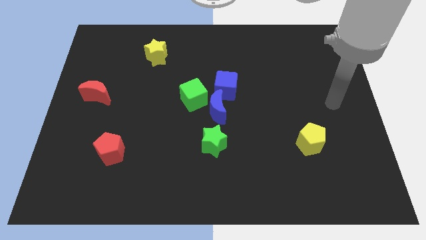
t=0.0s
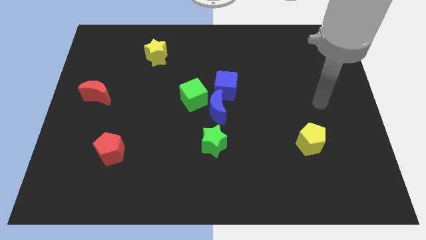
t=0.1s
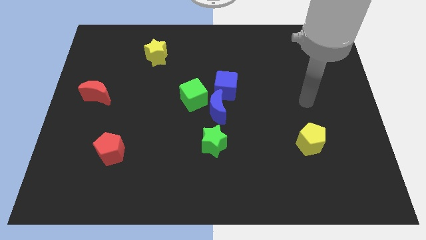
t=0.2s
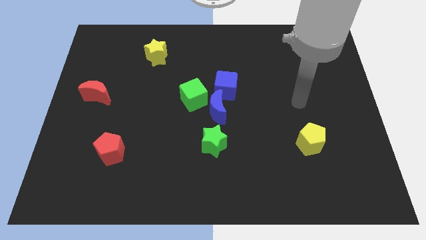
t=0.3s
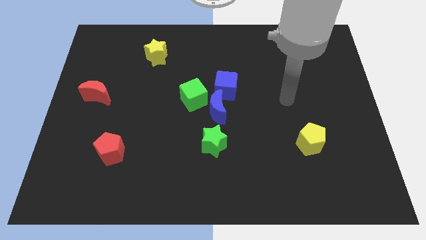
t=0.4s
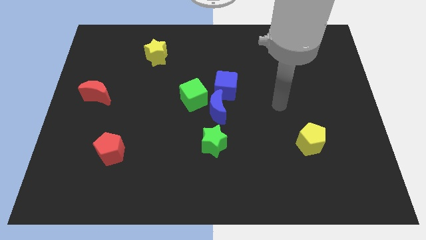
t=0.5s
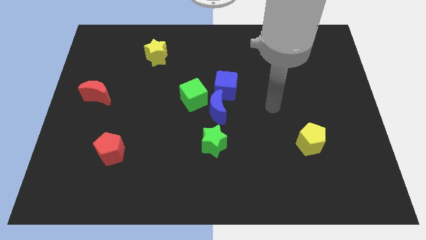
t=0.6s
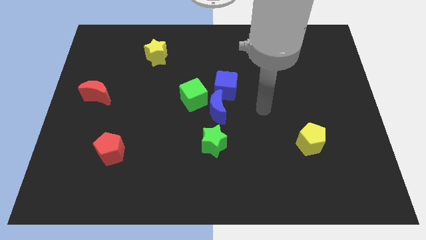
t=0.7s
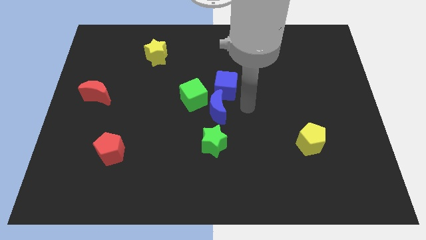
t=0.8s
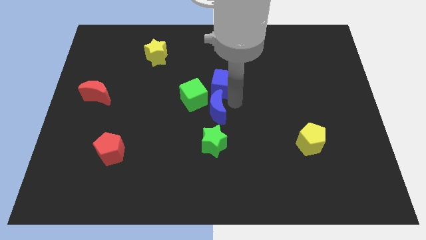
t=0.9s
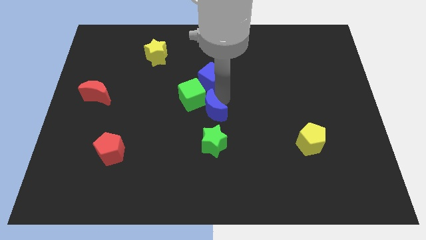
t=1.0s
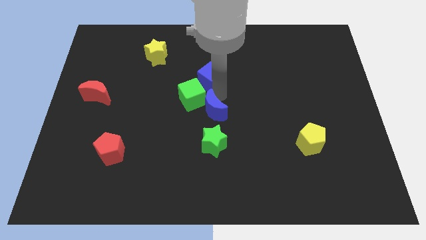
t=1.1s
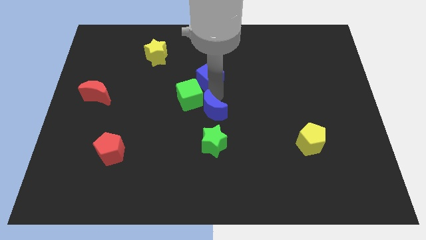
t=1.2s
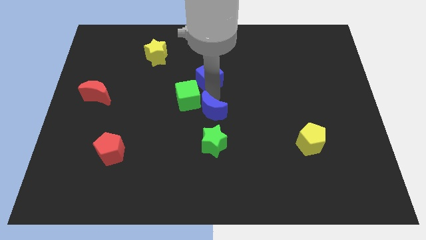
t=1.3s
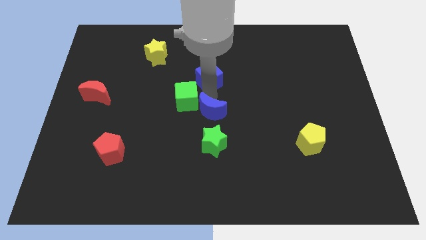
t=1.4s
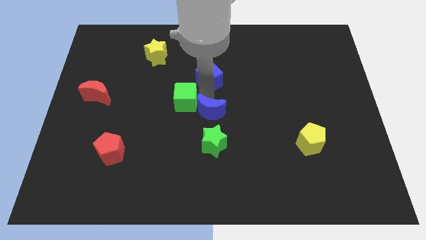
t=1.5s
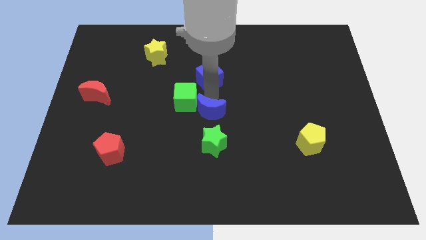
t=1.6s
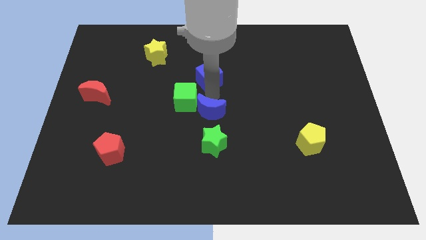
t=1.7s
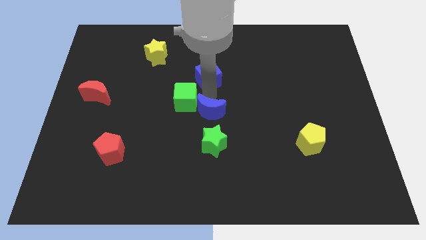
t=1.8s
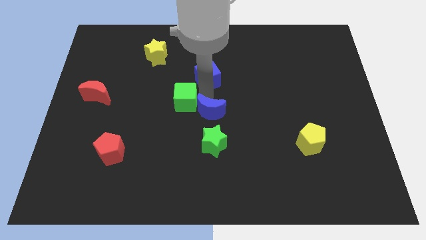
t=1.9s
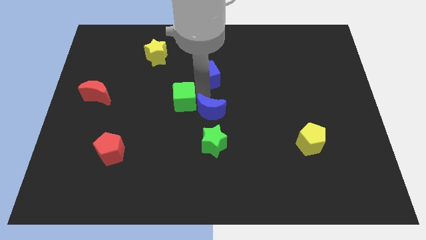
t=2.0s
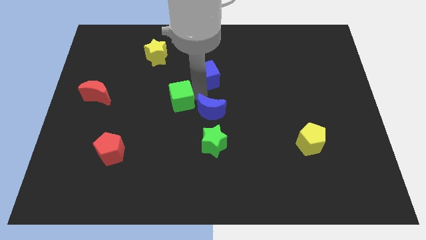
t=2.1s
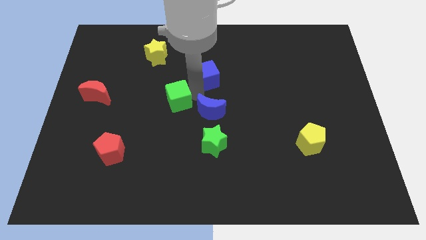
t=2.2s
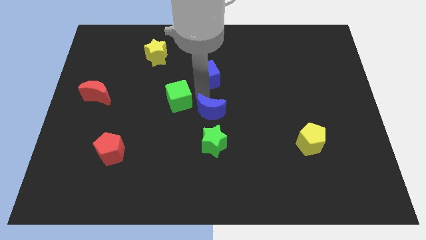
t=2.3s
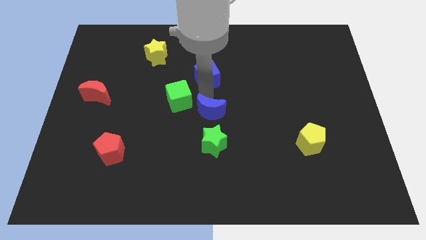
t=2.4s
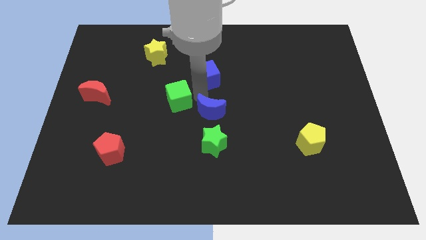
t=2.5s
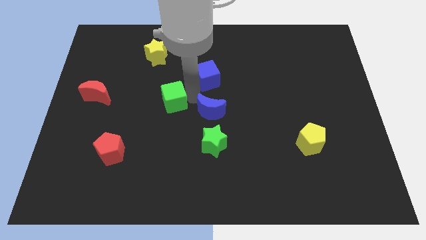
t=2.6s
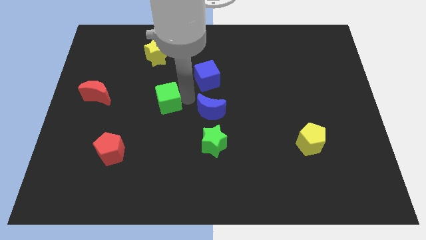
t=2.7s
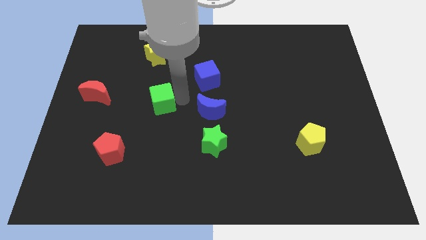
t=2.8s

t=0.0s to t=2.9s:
move the green cube away from the blue moon and blue cube

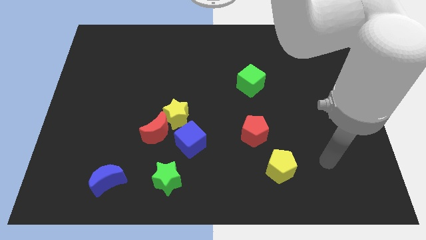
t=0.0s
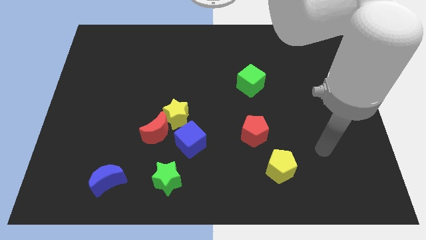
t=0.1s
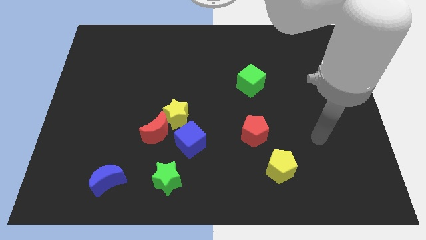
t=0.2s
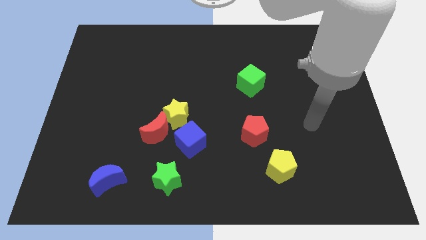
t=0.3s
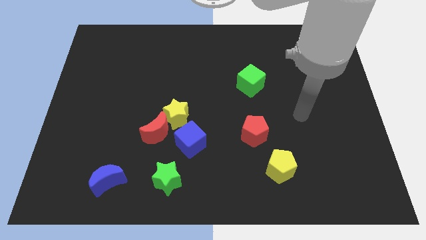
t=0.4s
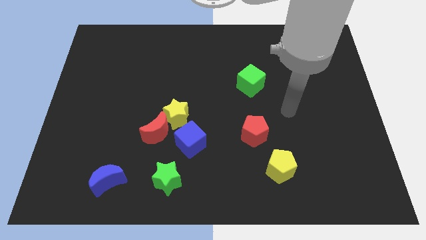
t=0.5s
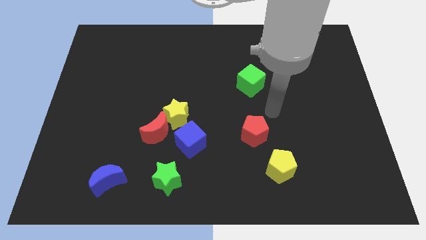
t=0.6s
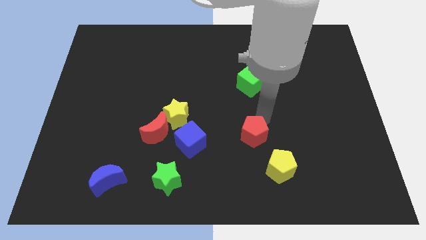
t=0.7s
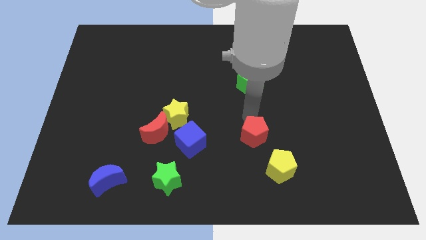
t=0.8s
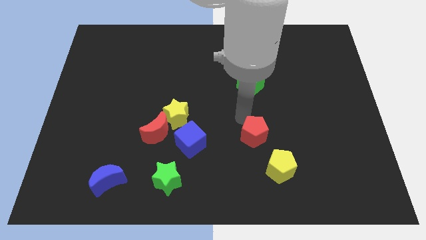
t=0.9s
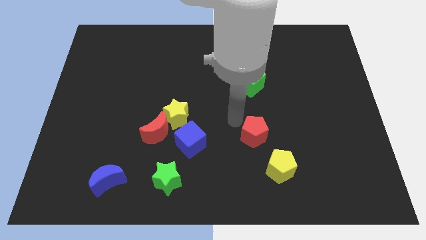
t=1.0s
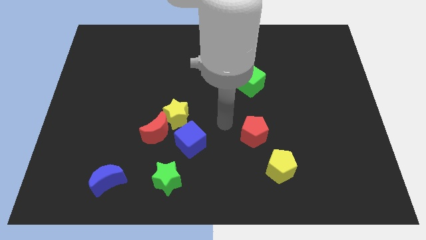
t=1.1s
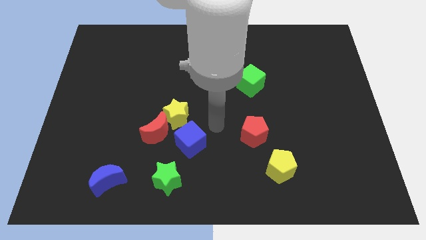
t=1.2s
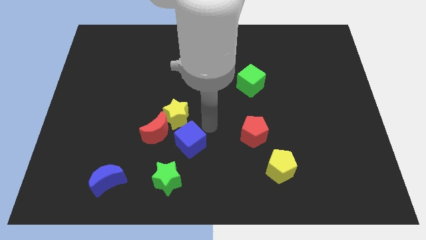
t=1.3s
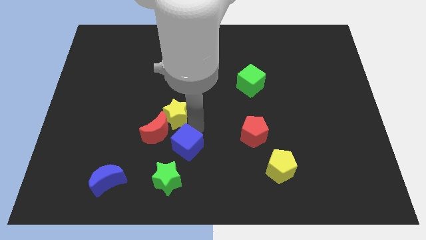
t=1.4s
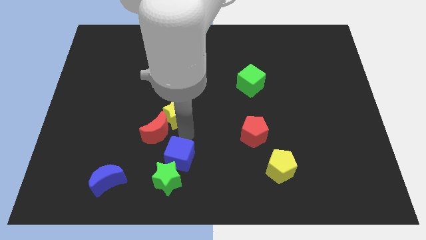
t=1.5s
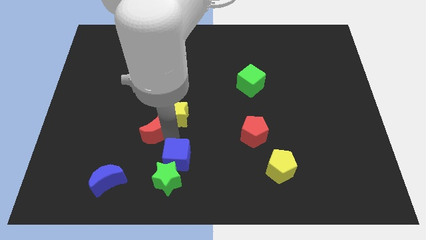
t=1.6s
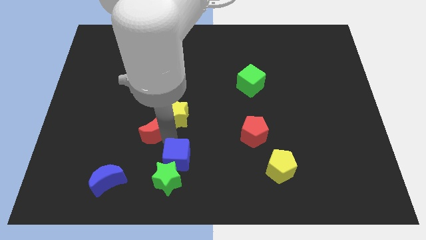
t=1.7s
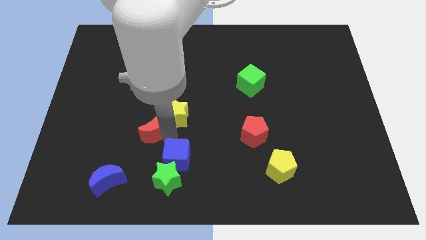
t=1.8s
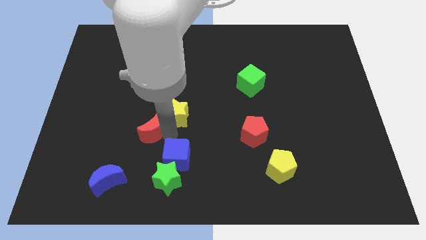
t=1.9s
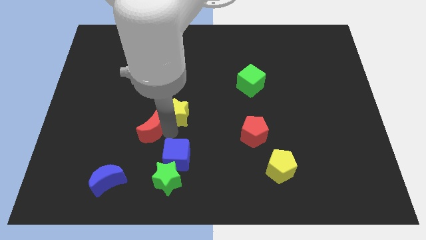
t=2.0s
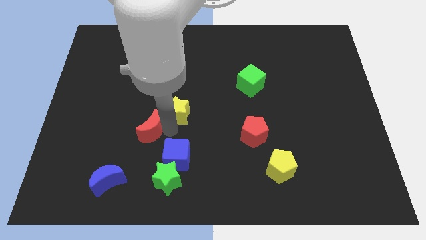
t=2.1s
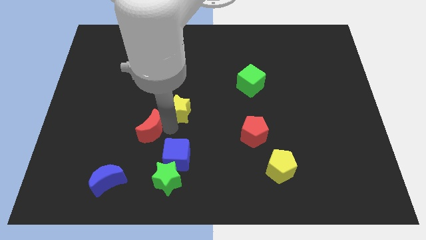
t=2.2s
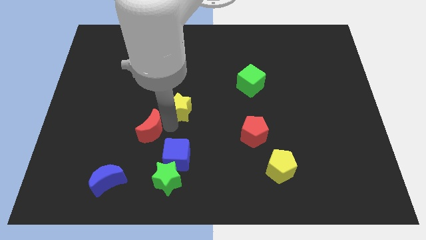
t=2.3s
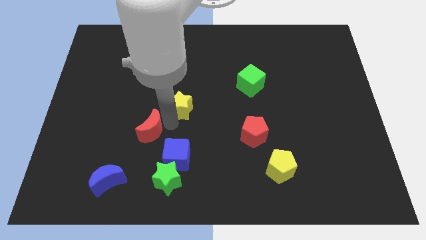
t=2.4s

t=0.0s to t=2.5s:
move the yellow star away from the red moon and blue cube

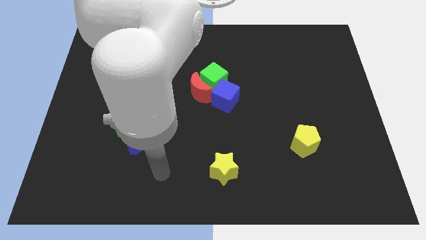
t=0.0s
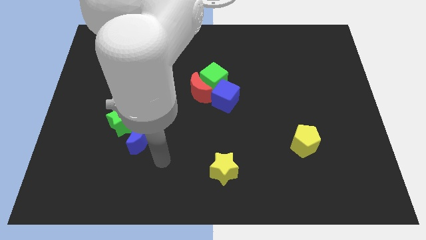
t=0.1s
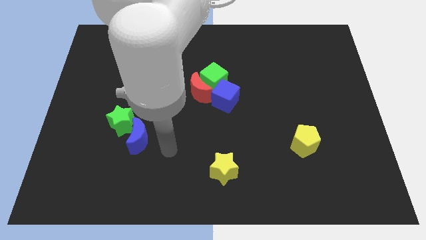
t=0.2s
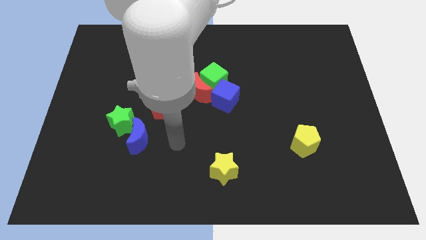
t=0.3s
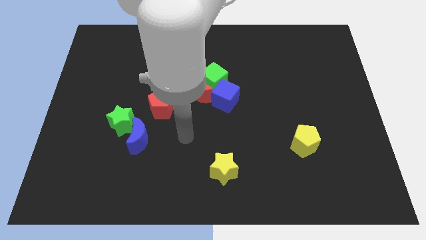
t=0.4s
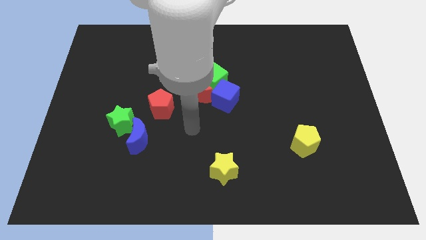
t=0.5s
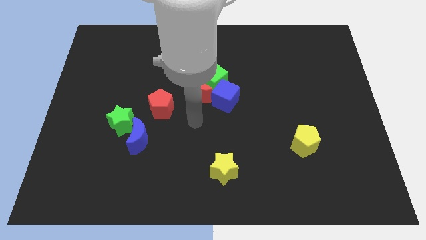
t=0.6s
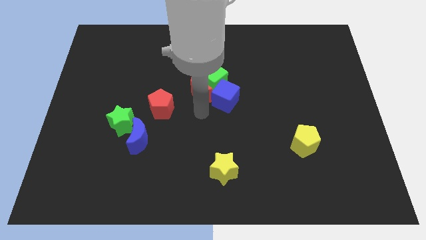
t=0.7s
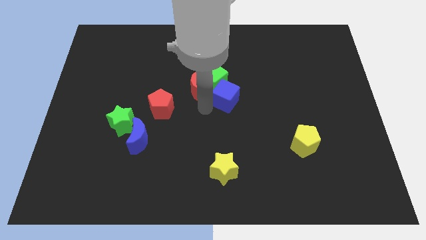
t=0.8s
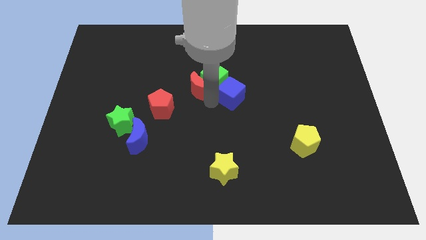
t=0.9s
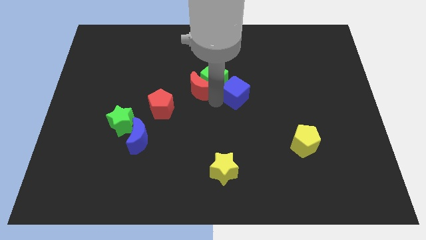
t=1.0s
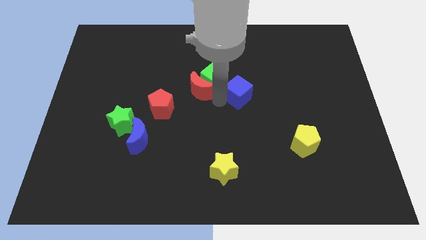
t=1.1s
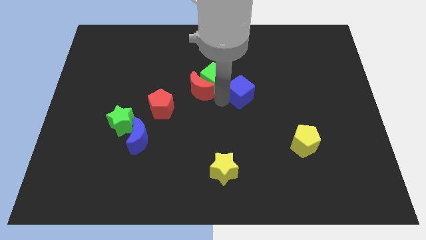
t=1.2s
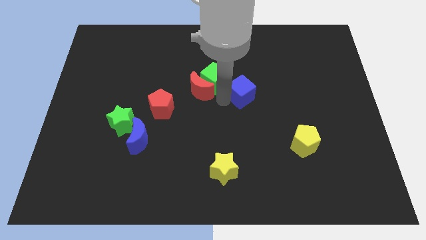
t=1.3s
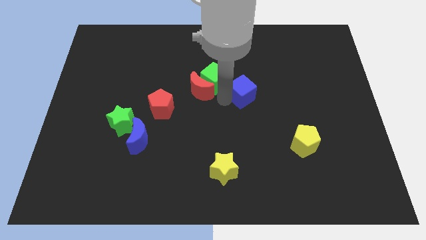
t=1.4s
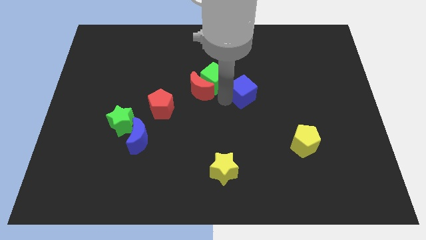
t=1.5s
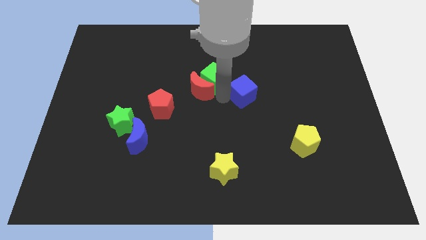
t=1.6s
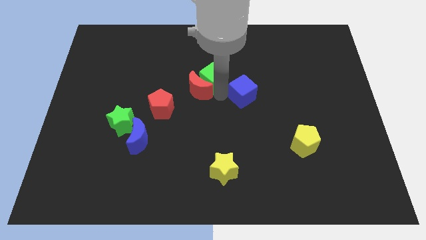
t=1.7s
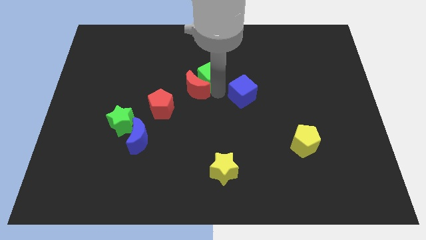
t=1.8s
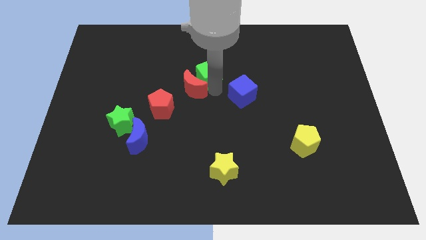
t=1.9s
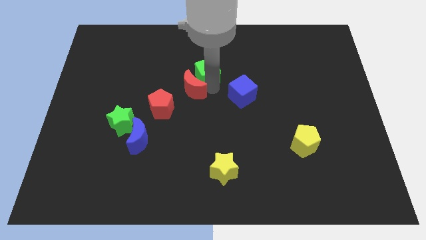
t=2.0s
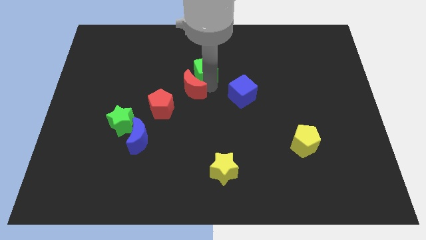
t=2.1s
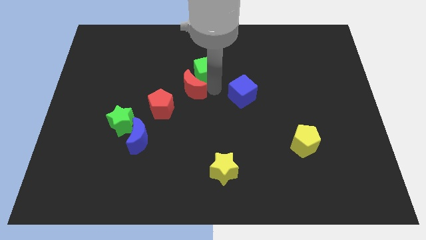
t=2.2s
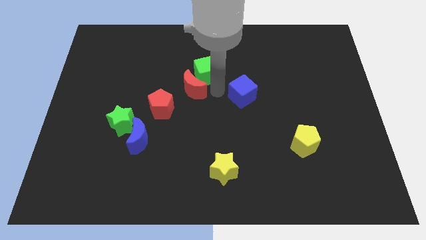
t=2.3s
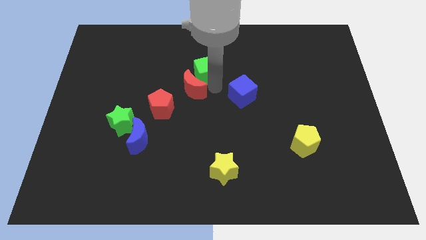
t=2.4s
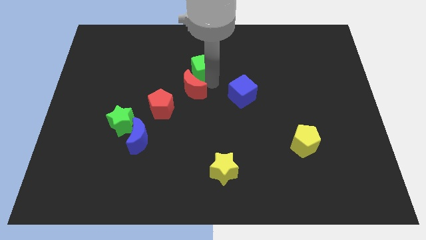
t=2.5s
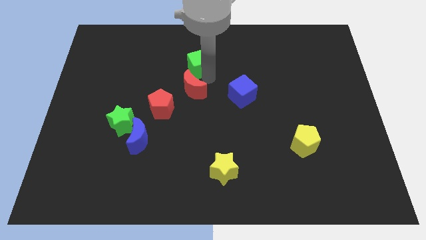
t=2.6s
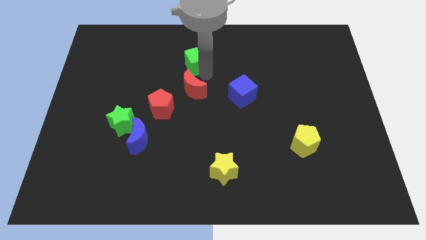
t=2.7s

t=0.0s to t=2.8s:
separate the green cube from the red moon and blue cube

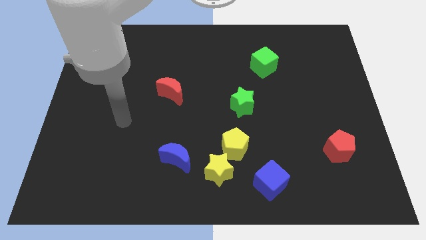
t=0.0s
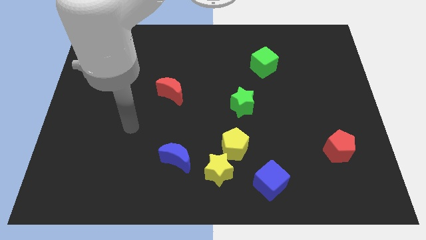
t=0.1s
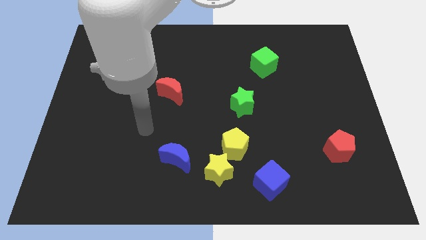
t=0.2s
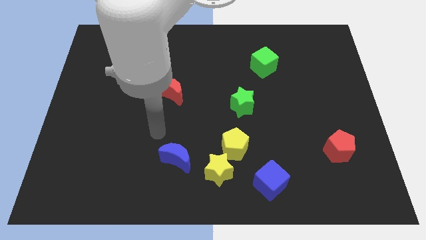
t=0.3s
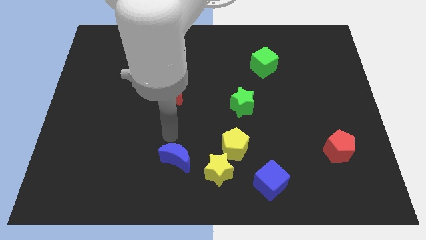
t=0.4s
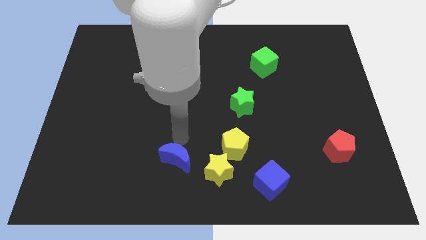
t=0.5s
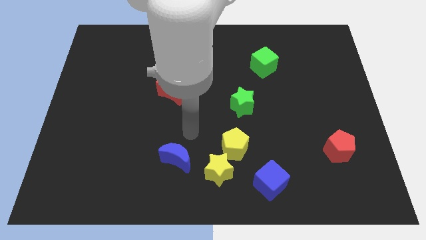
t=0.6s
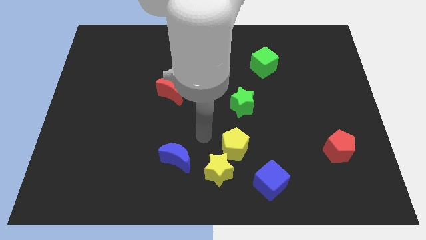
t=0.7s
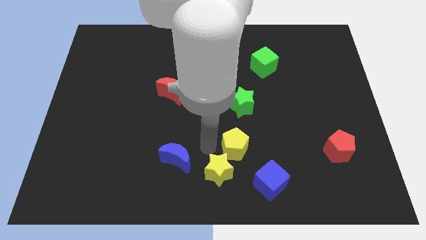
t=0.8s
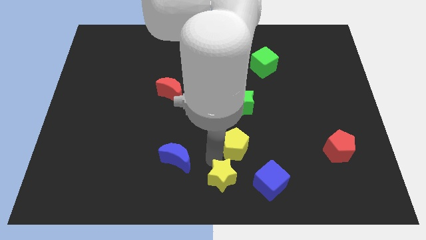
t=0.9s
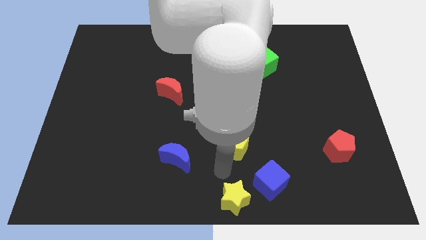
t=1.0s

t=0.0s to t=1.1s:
separate the yellow pentagon from the yellow star
